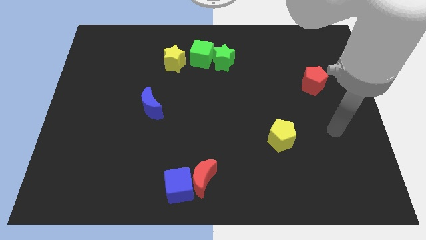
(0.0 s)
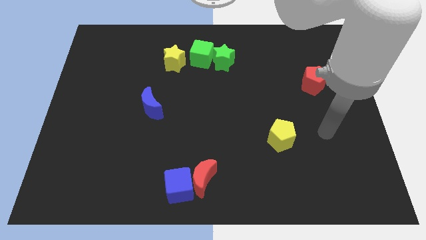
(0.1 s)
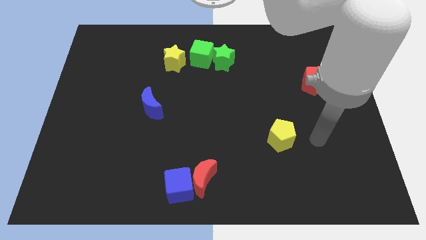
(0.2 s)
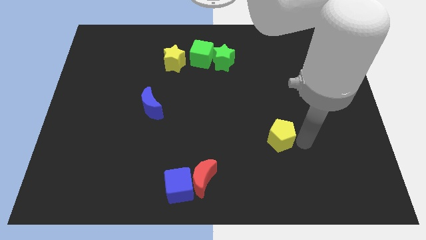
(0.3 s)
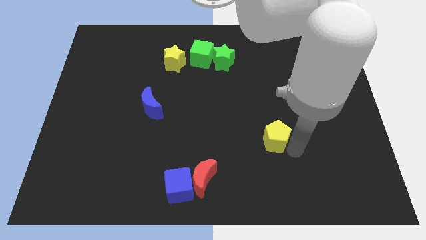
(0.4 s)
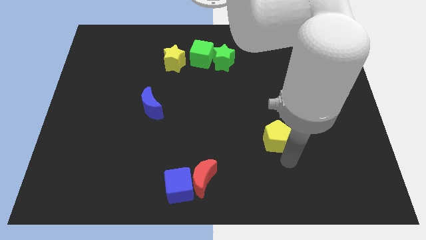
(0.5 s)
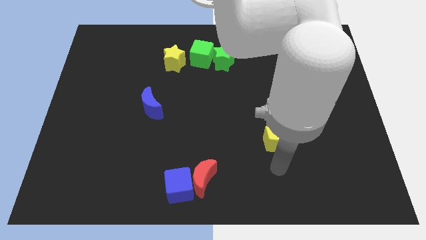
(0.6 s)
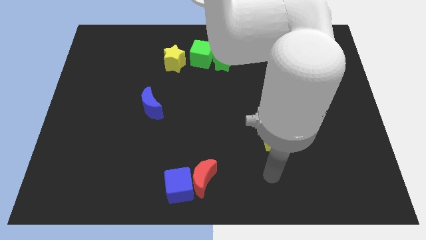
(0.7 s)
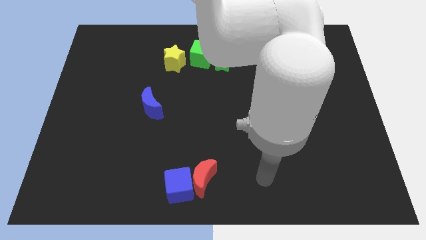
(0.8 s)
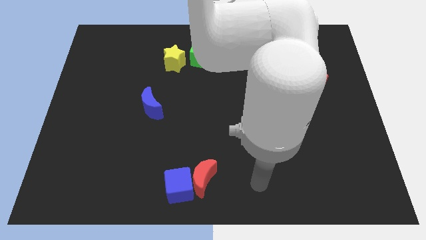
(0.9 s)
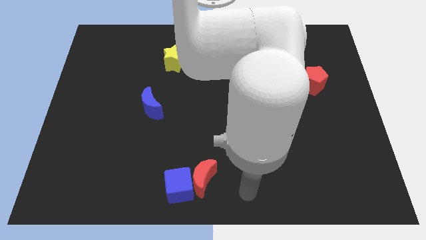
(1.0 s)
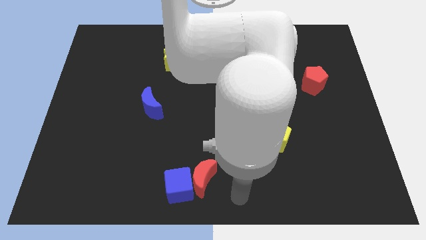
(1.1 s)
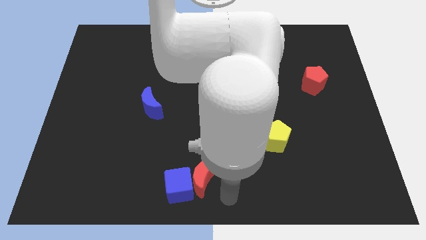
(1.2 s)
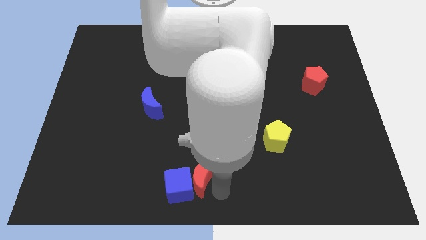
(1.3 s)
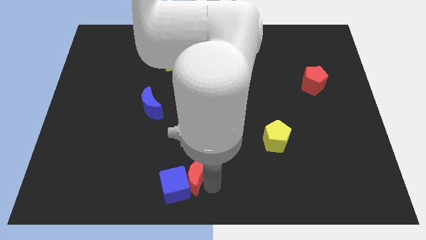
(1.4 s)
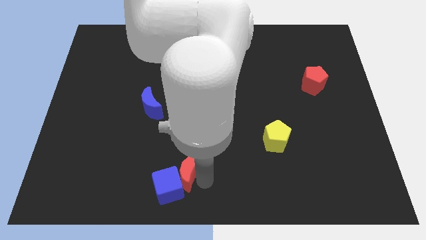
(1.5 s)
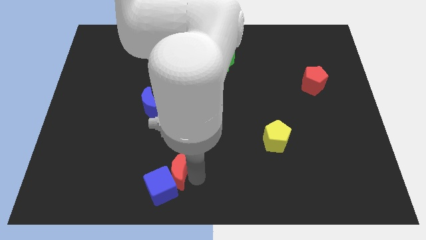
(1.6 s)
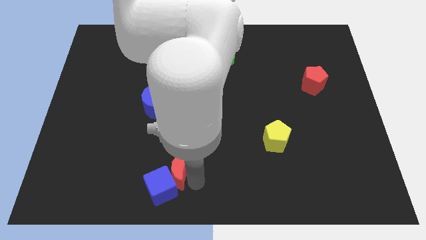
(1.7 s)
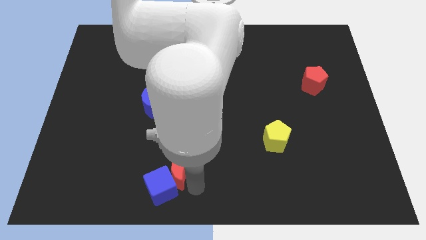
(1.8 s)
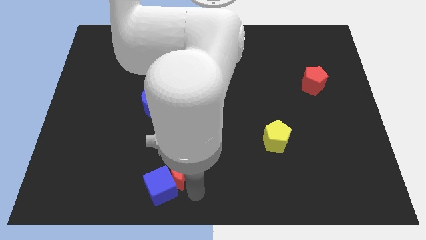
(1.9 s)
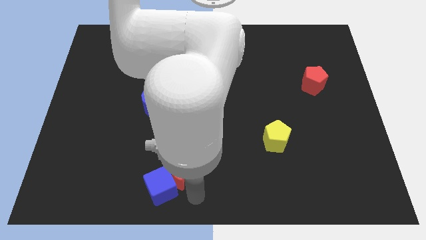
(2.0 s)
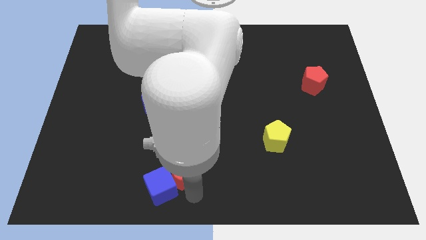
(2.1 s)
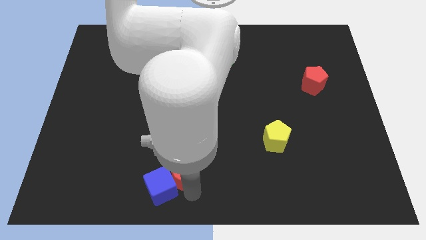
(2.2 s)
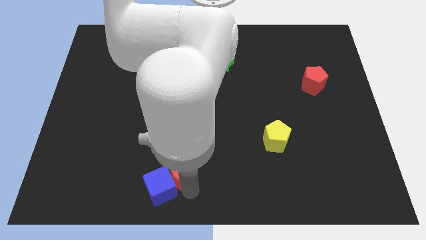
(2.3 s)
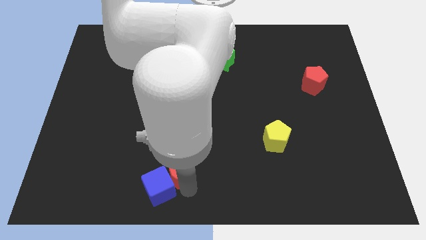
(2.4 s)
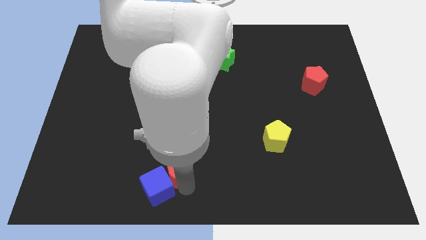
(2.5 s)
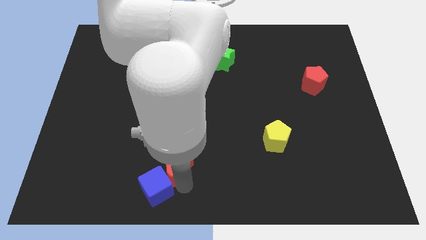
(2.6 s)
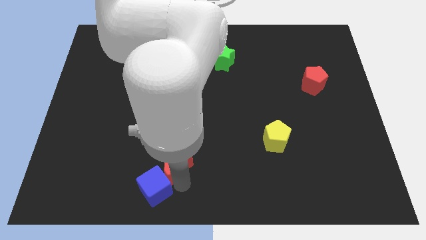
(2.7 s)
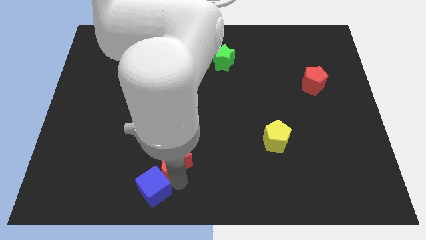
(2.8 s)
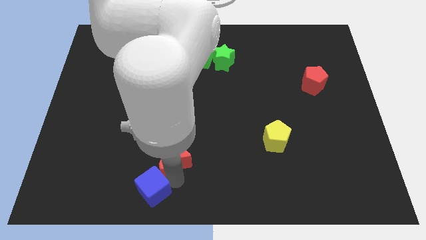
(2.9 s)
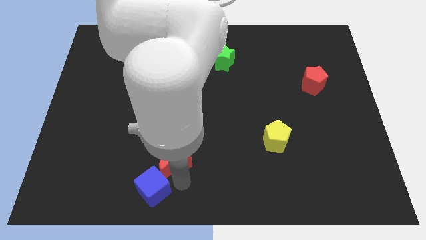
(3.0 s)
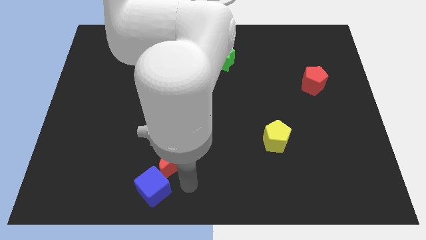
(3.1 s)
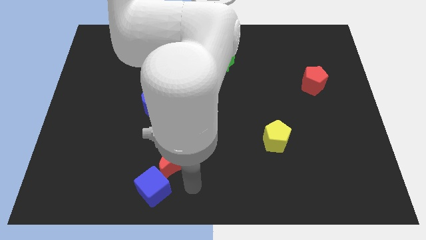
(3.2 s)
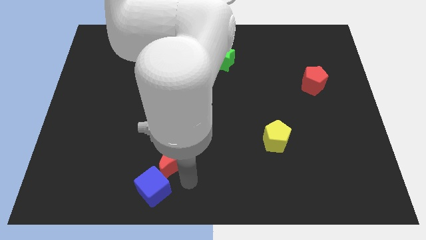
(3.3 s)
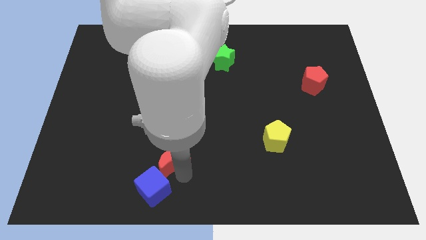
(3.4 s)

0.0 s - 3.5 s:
slightly push the red moon up and then to the left

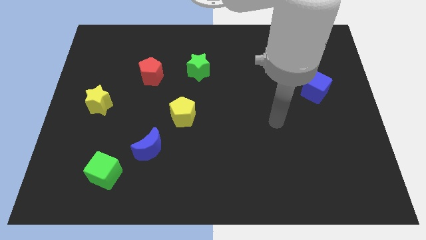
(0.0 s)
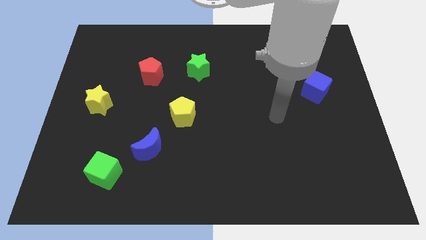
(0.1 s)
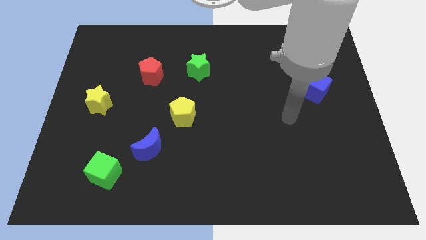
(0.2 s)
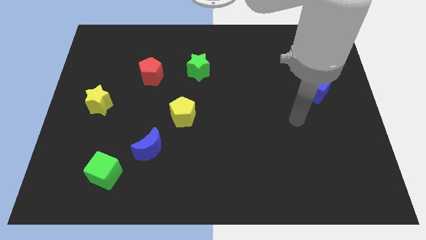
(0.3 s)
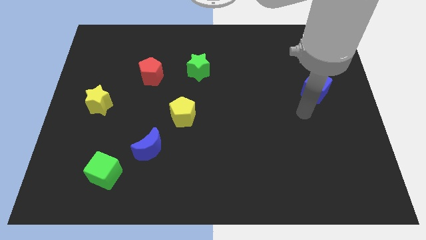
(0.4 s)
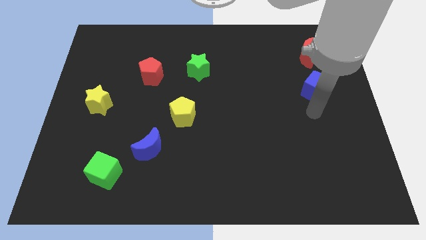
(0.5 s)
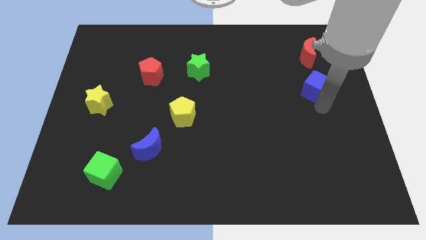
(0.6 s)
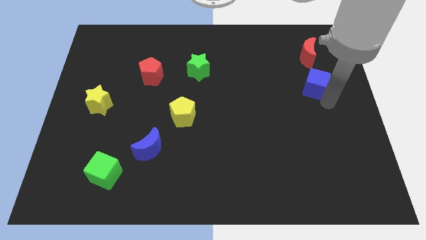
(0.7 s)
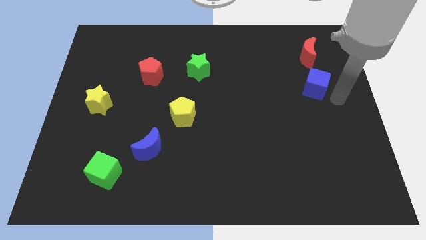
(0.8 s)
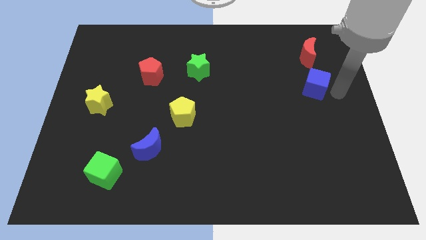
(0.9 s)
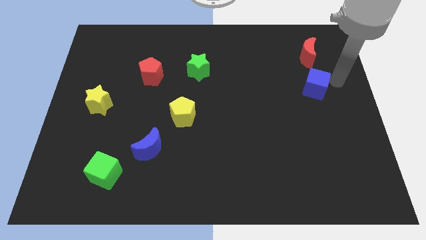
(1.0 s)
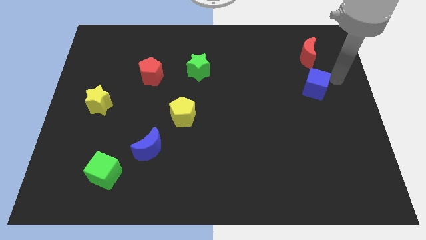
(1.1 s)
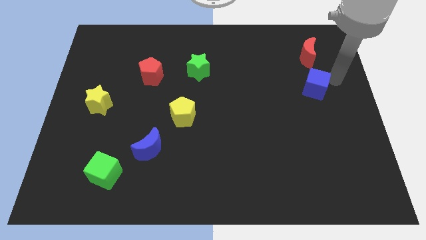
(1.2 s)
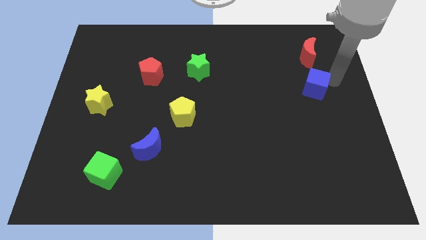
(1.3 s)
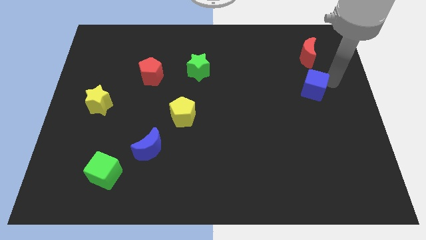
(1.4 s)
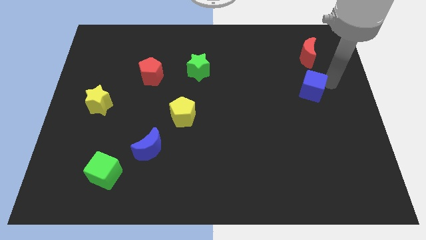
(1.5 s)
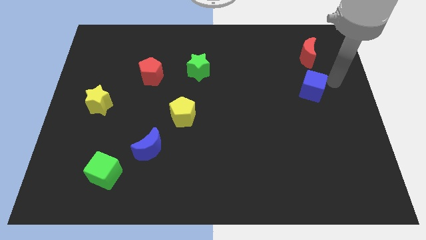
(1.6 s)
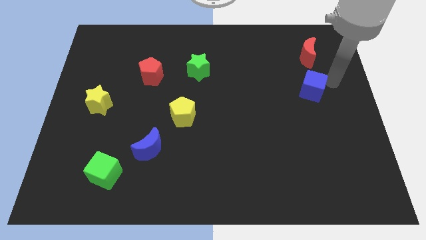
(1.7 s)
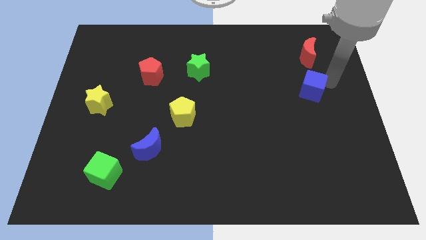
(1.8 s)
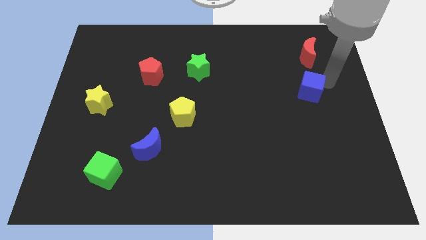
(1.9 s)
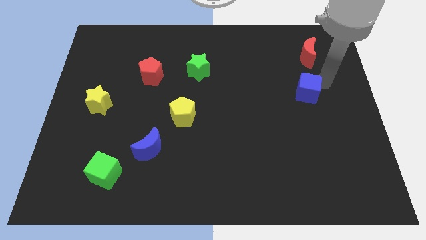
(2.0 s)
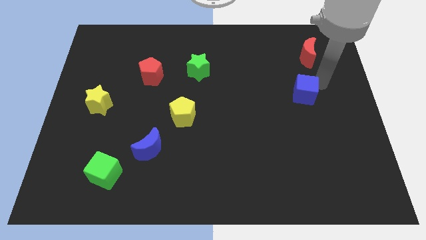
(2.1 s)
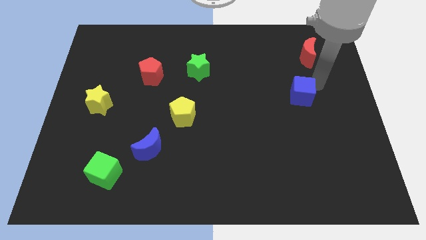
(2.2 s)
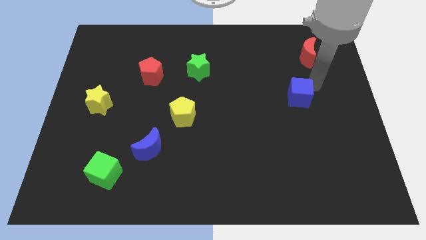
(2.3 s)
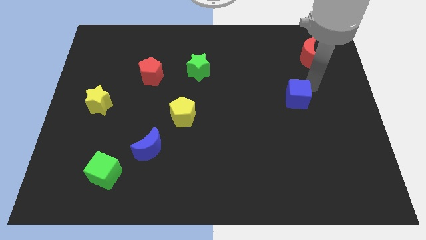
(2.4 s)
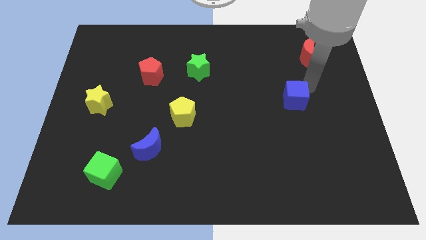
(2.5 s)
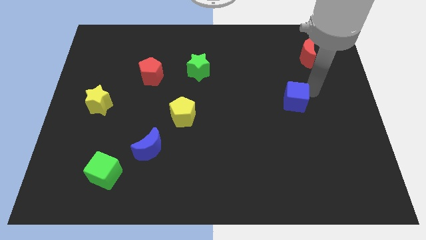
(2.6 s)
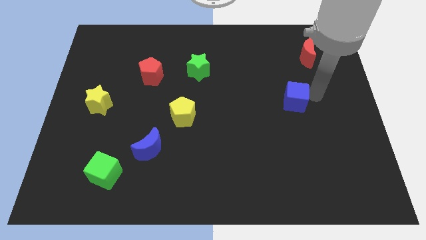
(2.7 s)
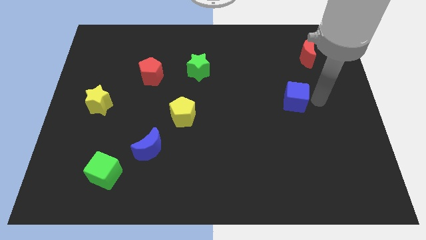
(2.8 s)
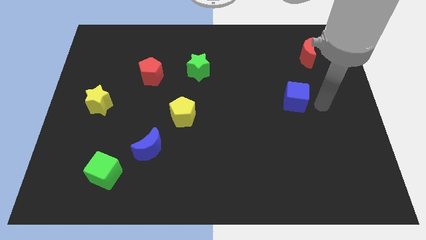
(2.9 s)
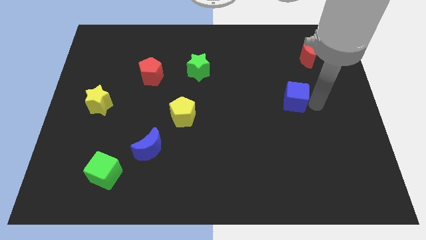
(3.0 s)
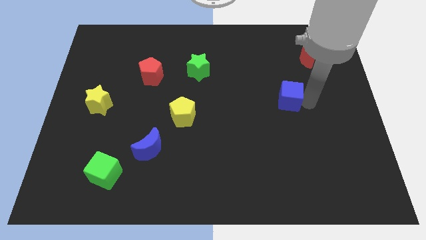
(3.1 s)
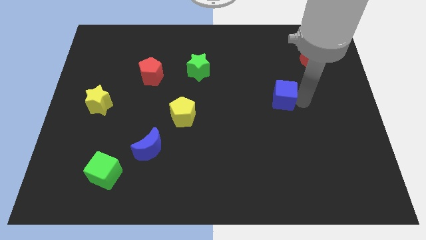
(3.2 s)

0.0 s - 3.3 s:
push the blue cube left a little

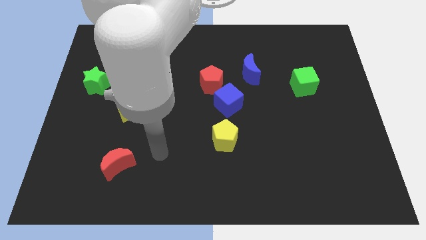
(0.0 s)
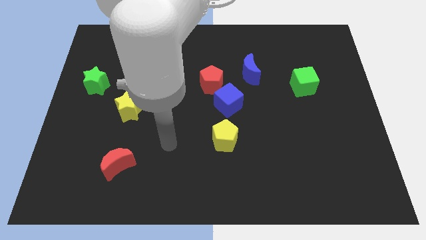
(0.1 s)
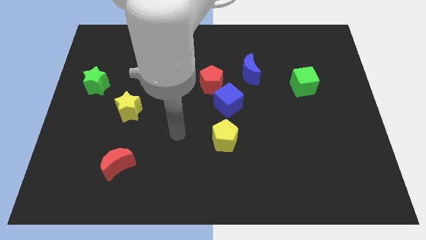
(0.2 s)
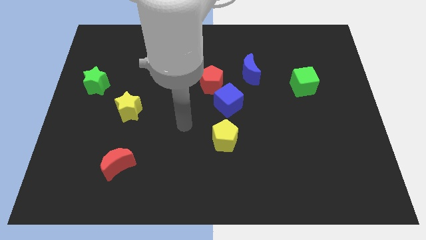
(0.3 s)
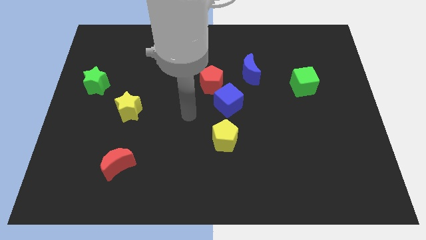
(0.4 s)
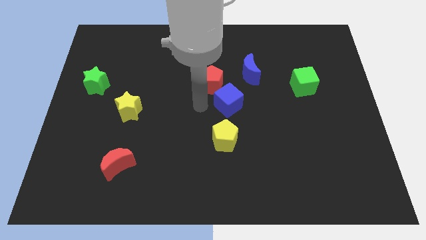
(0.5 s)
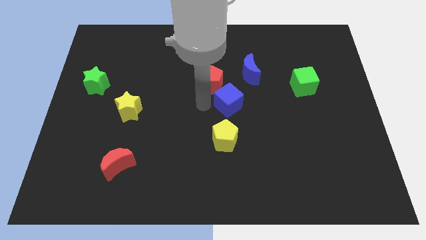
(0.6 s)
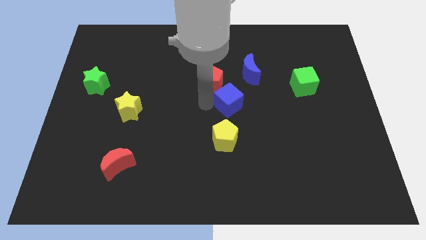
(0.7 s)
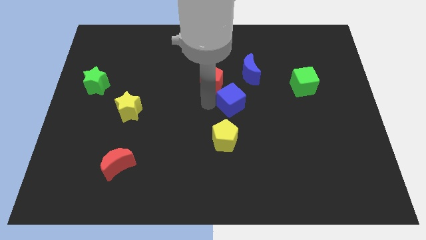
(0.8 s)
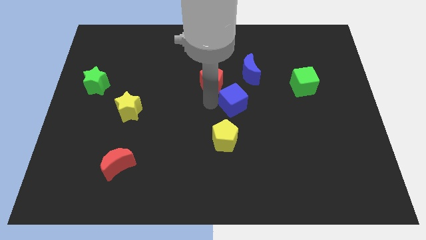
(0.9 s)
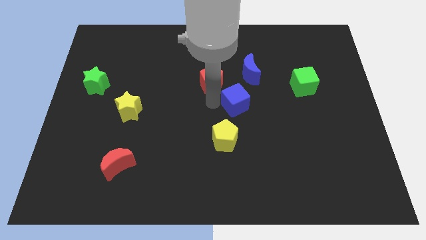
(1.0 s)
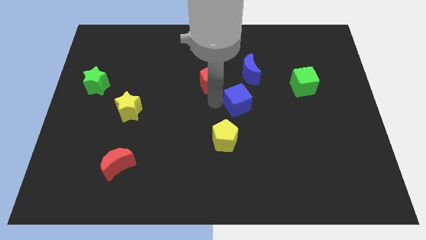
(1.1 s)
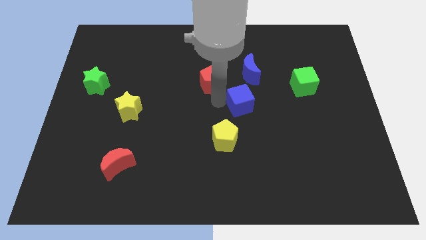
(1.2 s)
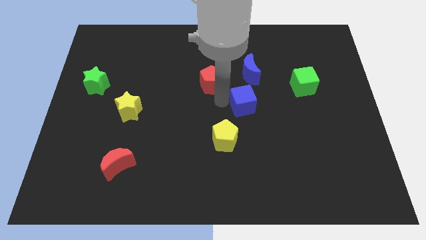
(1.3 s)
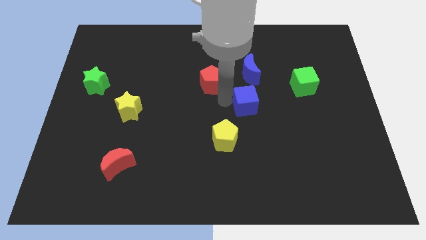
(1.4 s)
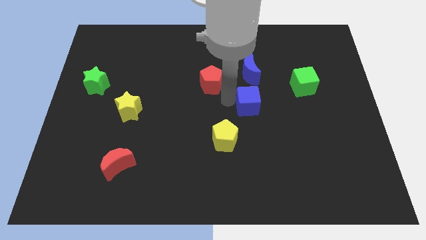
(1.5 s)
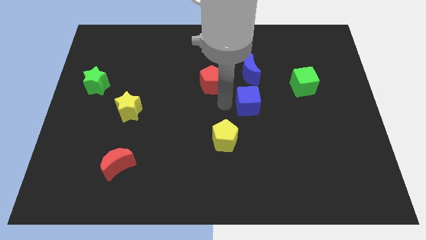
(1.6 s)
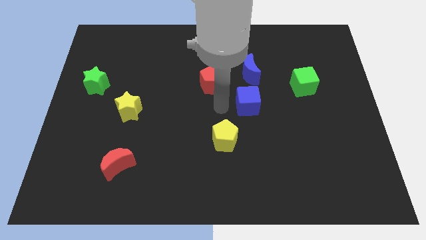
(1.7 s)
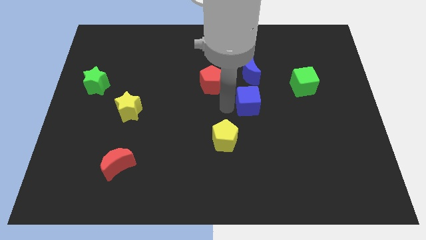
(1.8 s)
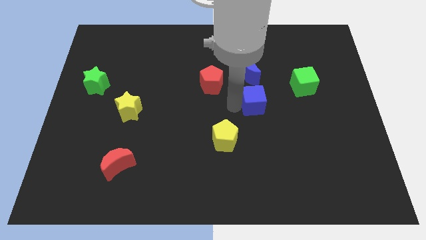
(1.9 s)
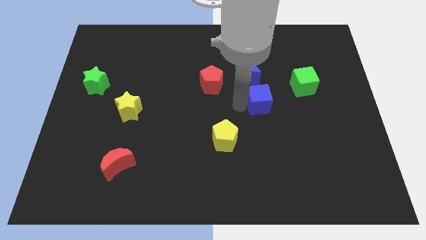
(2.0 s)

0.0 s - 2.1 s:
slightly push the blue cube right
